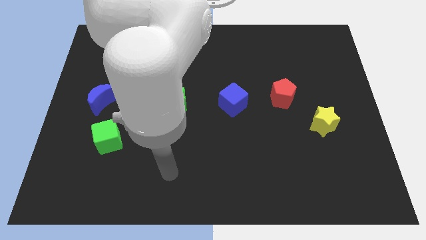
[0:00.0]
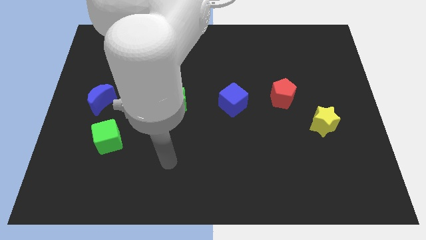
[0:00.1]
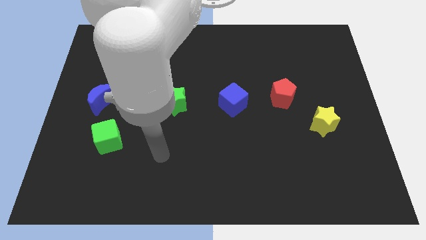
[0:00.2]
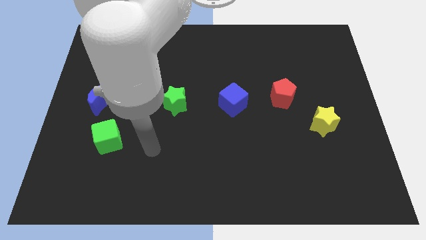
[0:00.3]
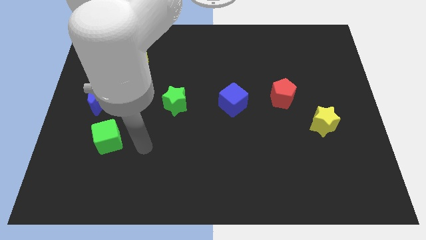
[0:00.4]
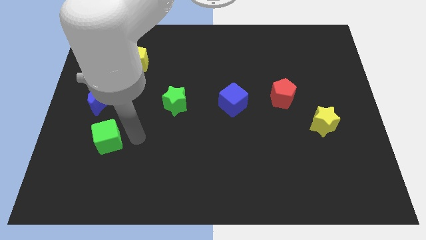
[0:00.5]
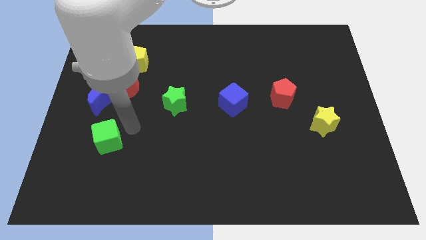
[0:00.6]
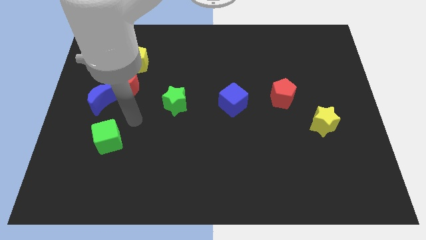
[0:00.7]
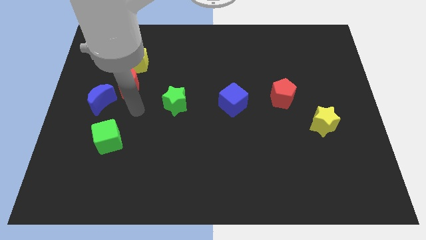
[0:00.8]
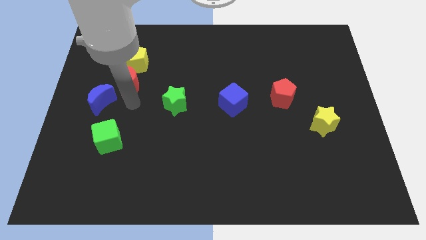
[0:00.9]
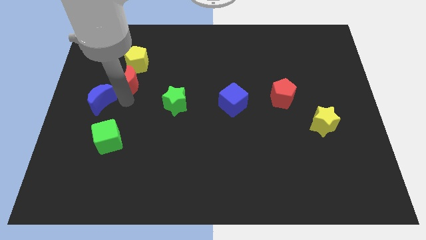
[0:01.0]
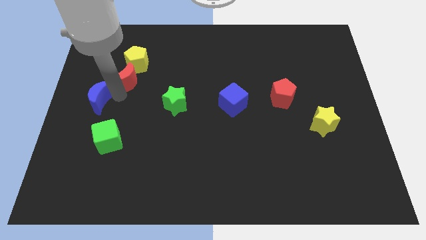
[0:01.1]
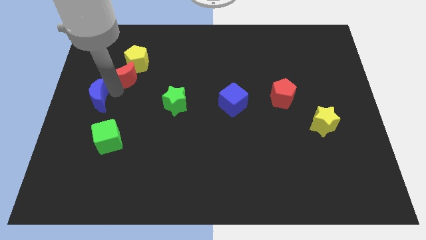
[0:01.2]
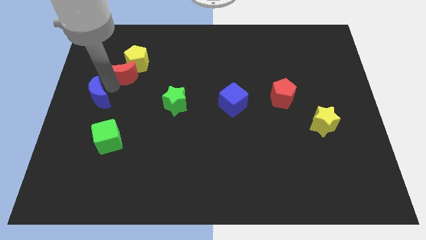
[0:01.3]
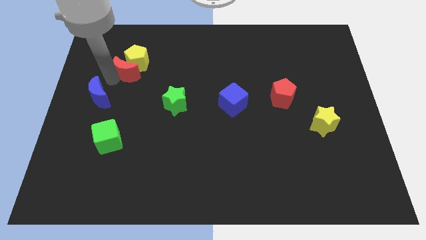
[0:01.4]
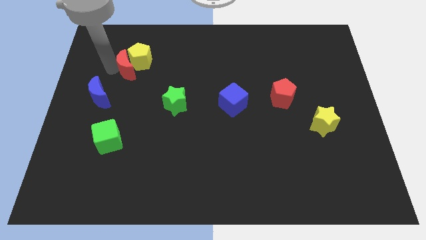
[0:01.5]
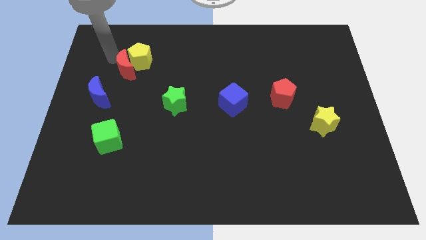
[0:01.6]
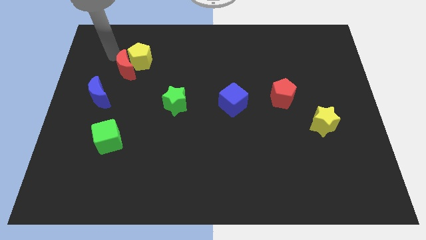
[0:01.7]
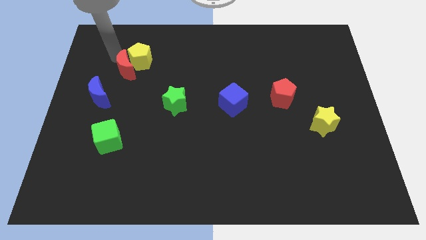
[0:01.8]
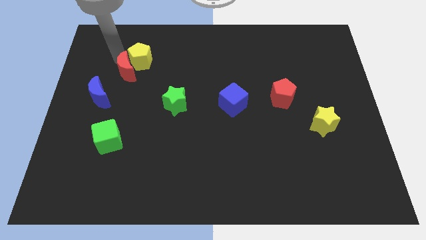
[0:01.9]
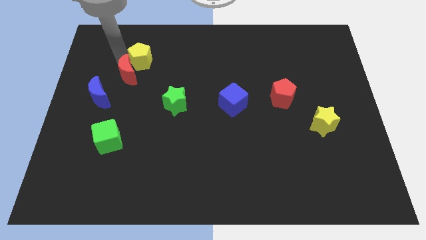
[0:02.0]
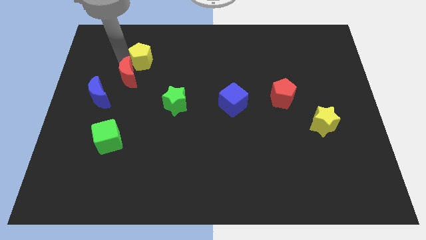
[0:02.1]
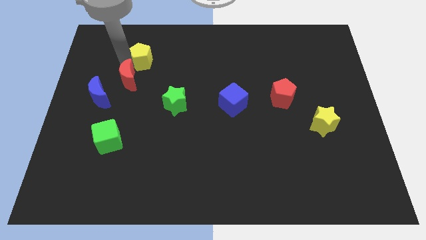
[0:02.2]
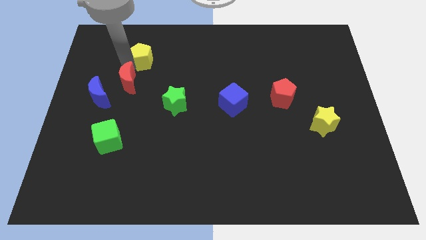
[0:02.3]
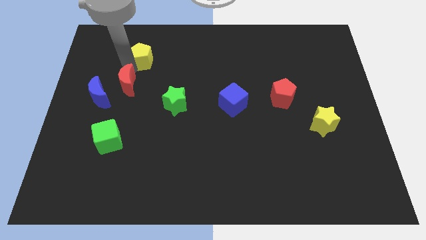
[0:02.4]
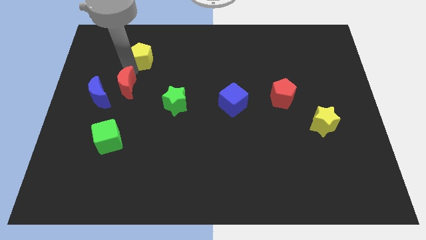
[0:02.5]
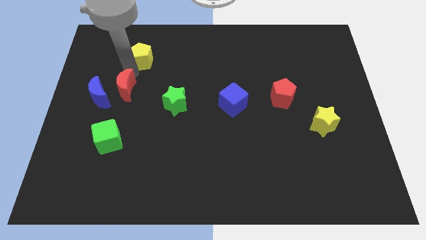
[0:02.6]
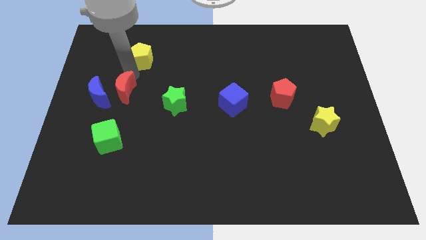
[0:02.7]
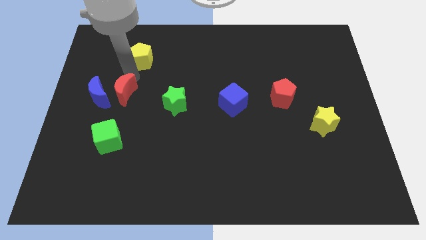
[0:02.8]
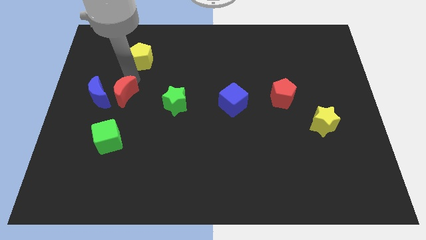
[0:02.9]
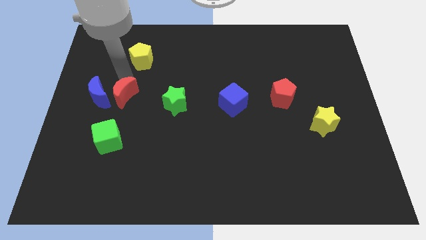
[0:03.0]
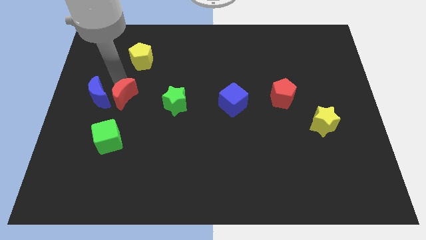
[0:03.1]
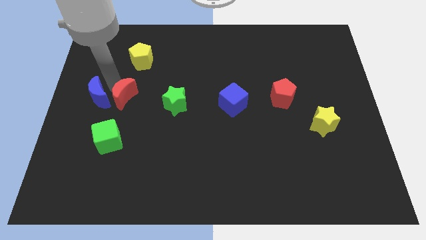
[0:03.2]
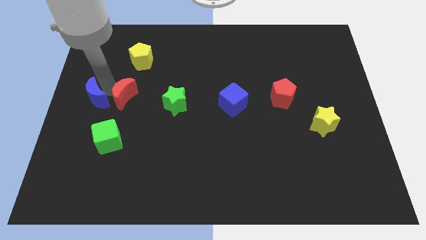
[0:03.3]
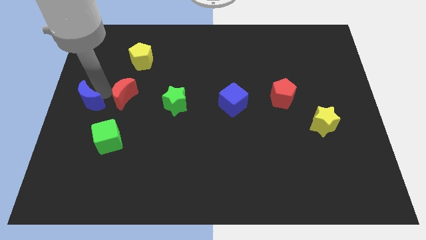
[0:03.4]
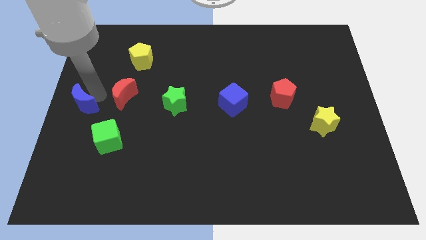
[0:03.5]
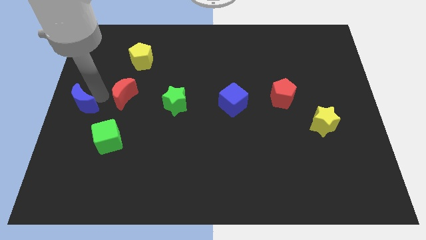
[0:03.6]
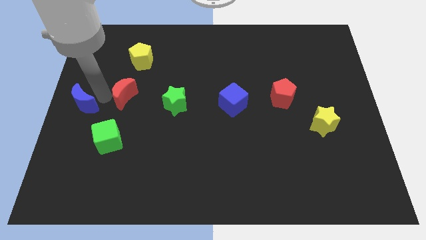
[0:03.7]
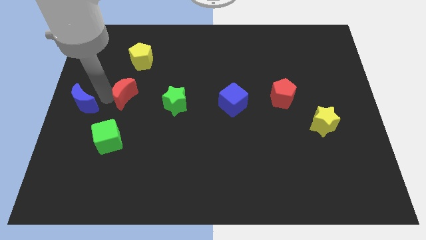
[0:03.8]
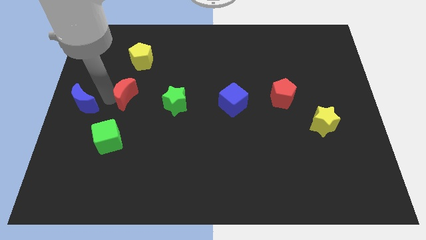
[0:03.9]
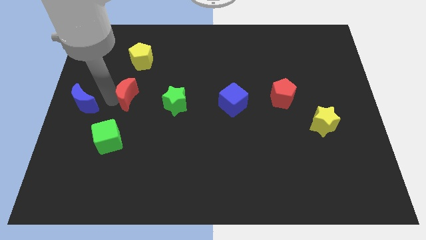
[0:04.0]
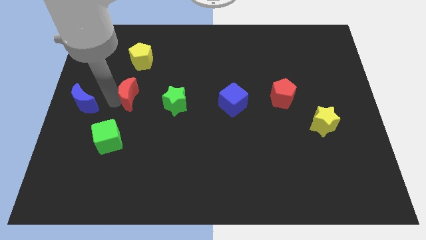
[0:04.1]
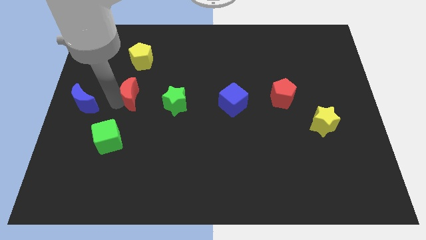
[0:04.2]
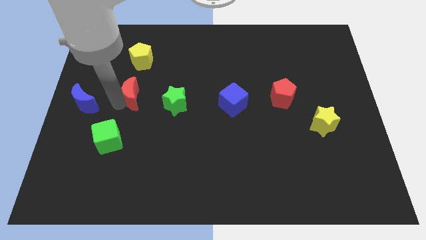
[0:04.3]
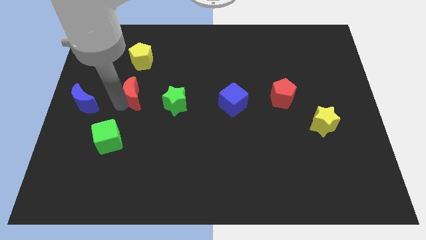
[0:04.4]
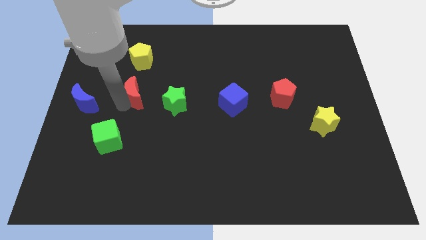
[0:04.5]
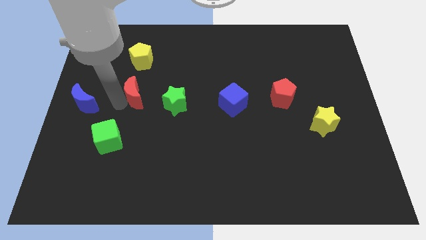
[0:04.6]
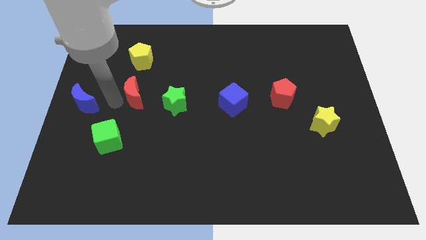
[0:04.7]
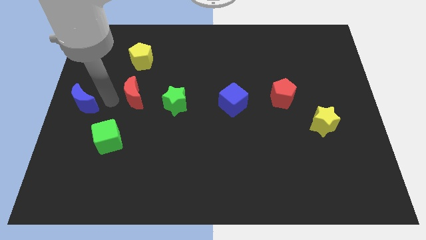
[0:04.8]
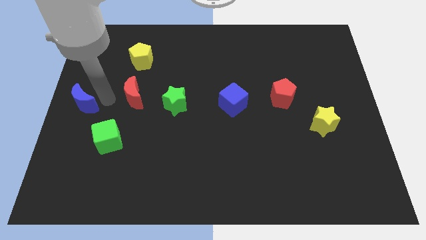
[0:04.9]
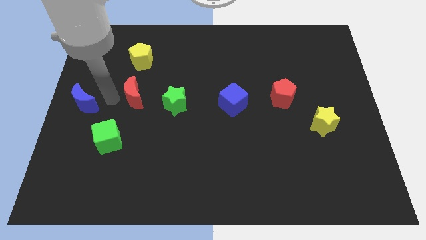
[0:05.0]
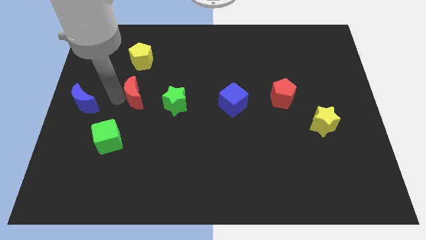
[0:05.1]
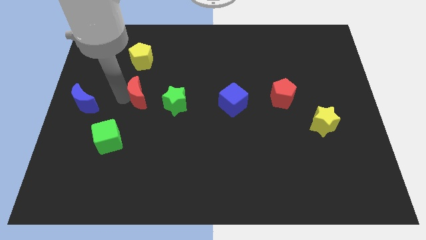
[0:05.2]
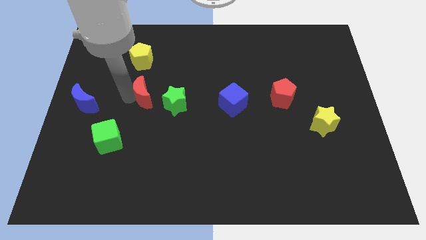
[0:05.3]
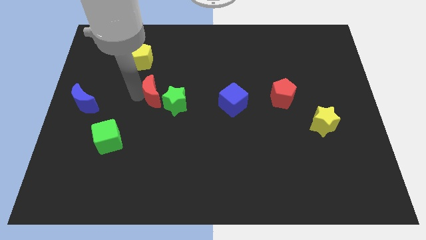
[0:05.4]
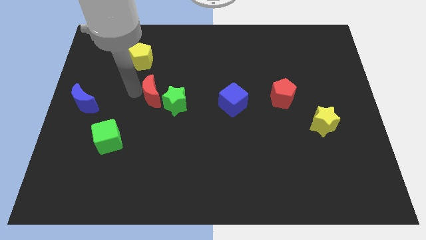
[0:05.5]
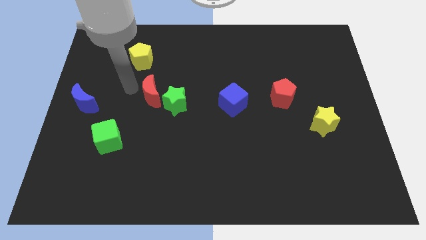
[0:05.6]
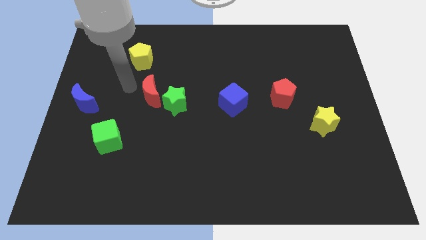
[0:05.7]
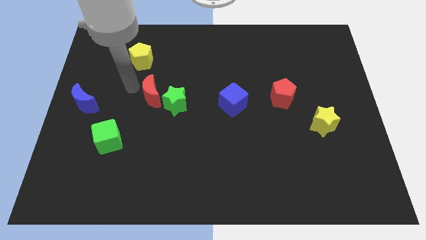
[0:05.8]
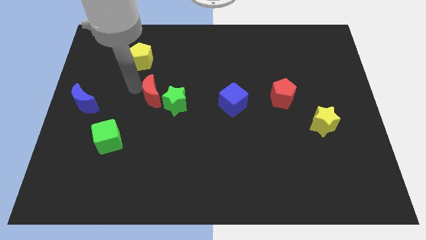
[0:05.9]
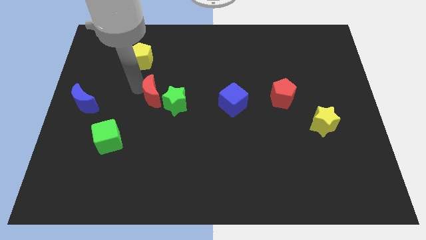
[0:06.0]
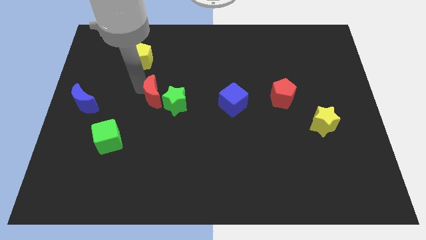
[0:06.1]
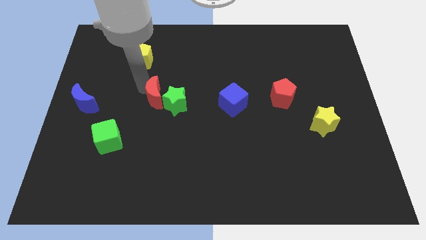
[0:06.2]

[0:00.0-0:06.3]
push the red moon towards the green star

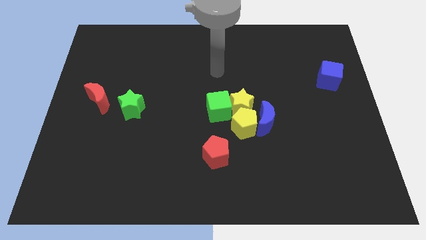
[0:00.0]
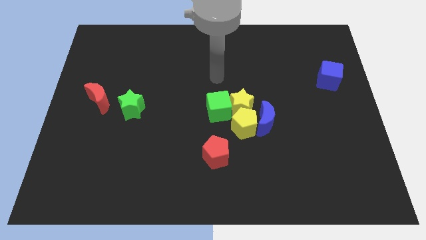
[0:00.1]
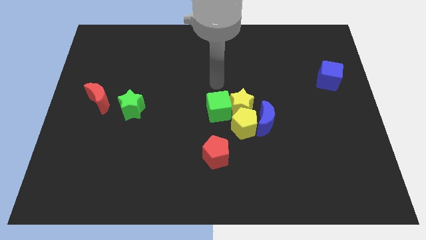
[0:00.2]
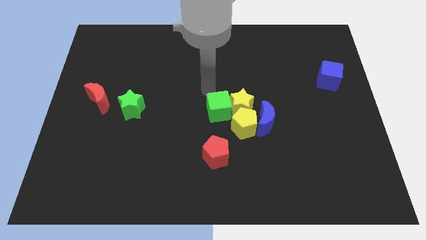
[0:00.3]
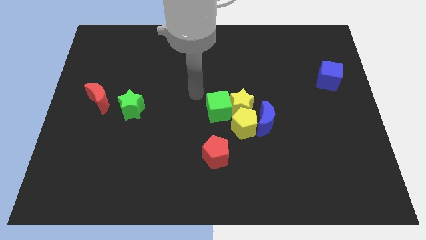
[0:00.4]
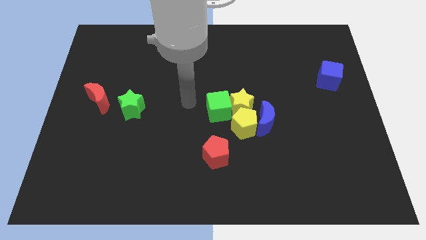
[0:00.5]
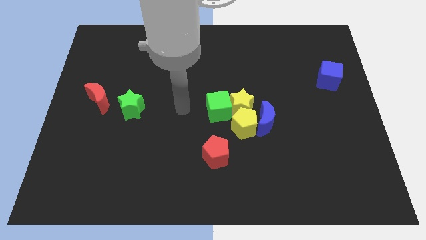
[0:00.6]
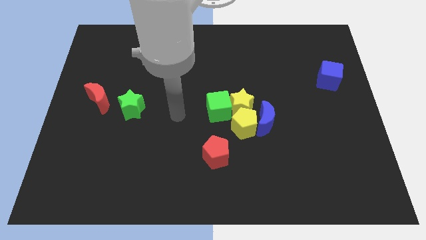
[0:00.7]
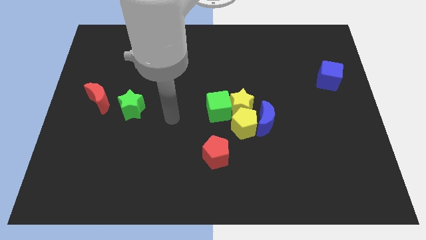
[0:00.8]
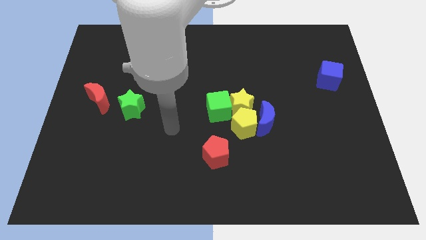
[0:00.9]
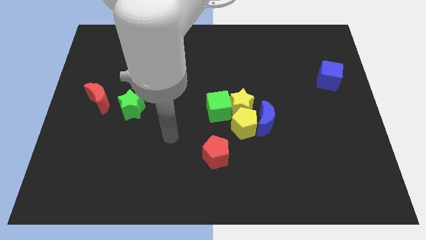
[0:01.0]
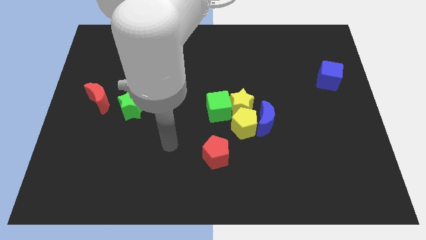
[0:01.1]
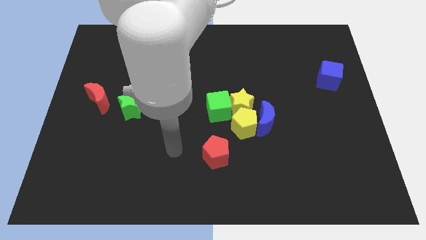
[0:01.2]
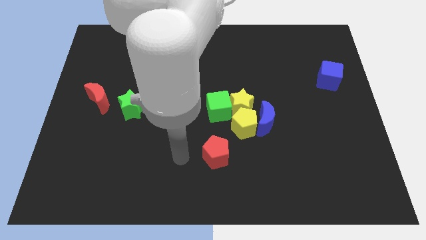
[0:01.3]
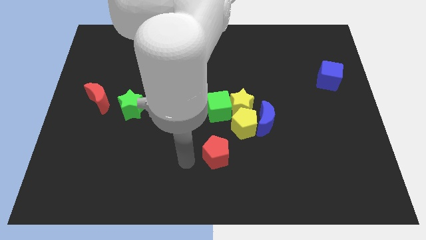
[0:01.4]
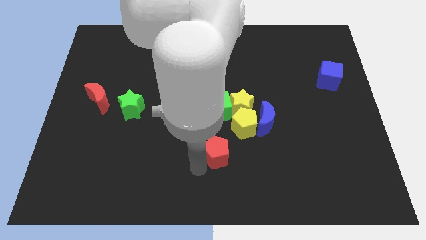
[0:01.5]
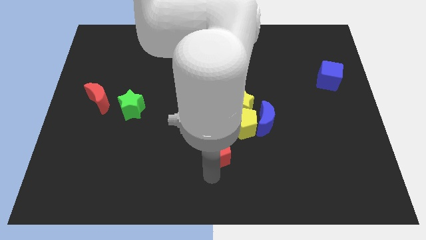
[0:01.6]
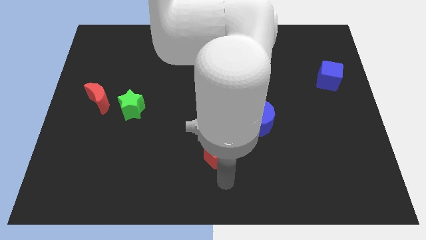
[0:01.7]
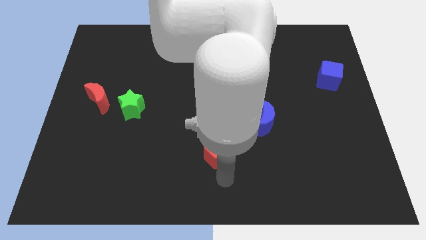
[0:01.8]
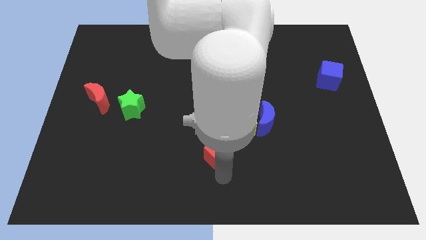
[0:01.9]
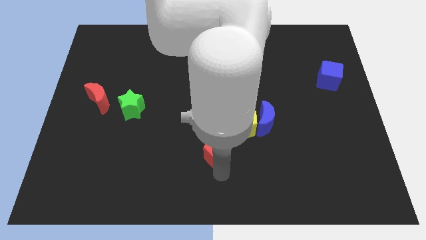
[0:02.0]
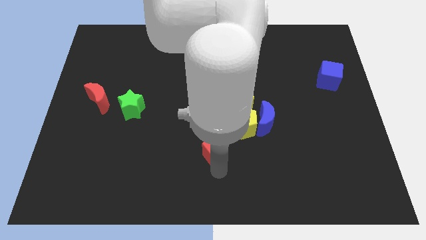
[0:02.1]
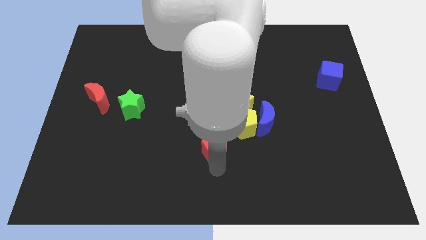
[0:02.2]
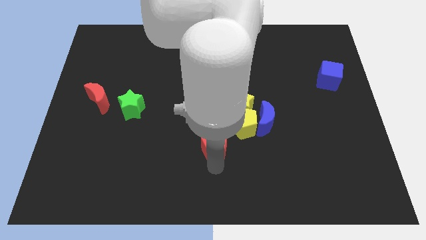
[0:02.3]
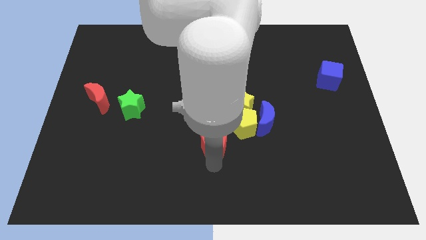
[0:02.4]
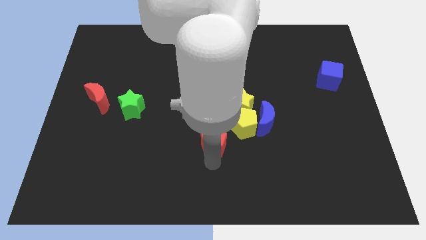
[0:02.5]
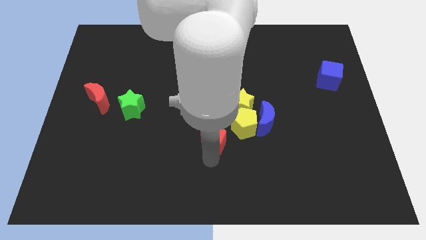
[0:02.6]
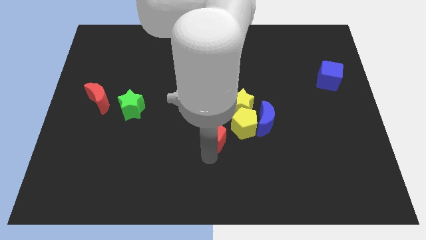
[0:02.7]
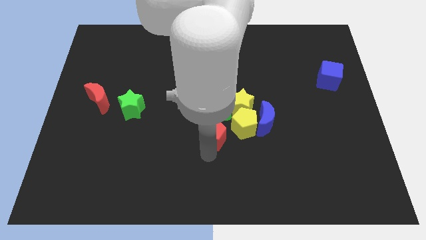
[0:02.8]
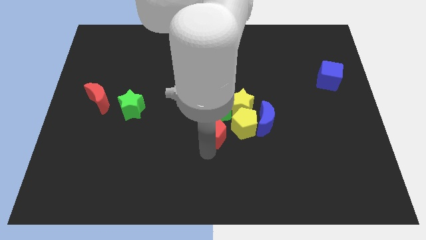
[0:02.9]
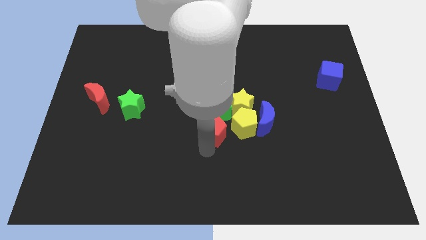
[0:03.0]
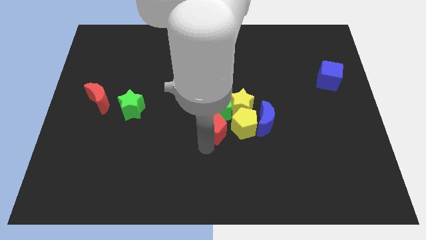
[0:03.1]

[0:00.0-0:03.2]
put the red pentagon next to the green cube
